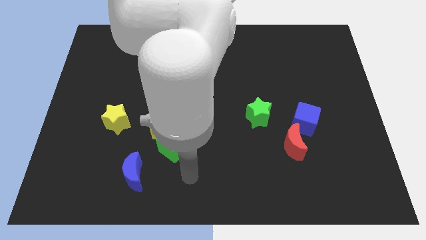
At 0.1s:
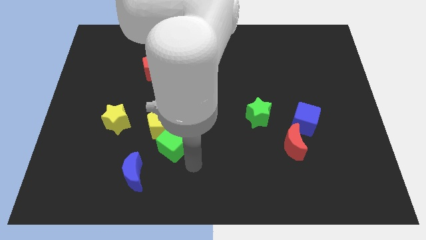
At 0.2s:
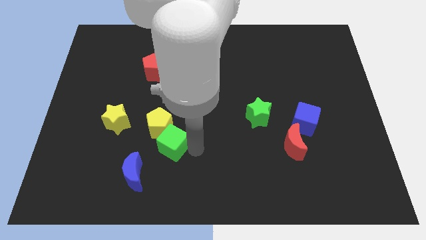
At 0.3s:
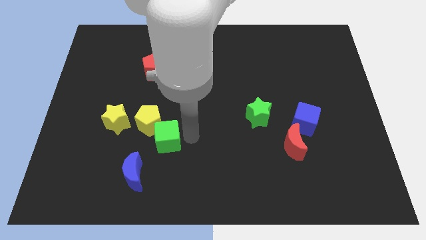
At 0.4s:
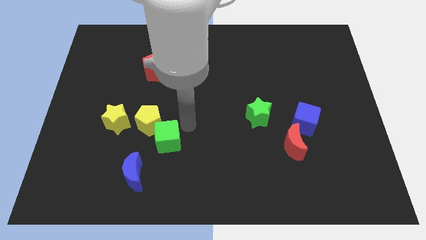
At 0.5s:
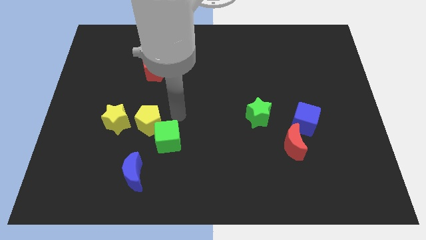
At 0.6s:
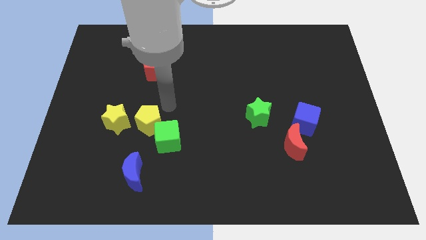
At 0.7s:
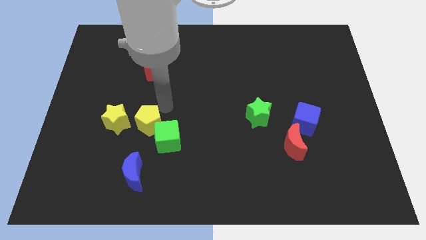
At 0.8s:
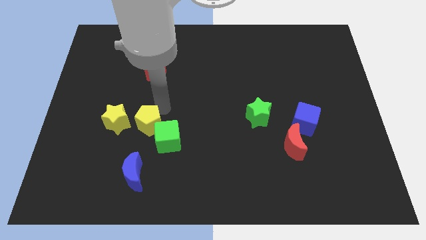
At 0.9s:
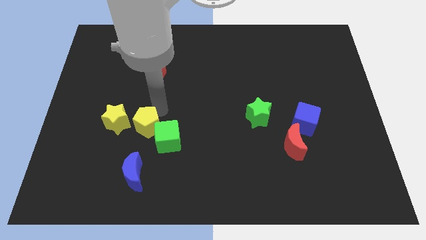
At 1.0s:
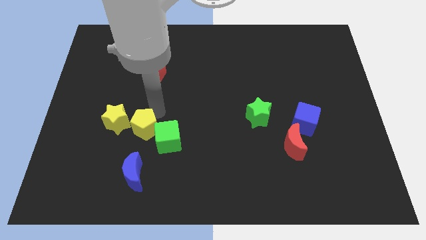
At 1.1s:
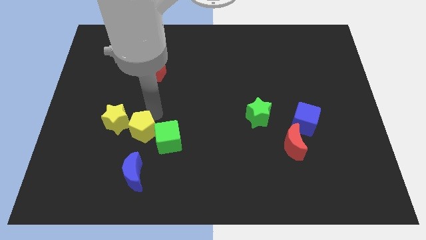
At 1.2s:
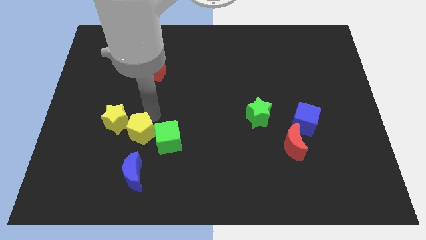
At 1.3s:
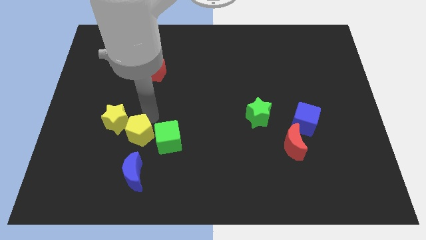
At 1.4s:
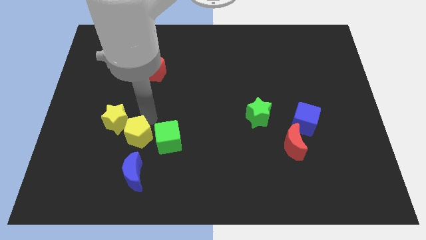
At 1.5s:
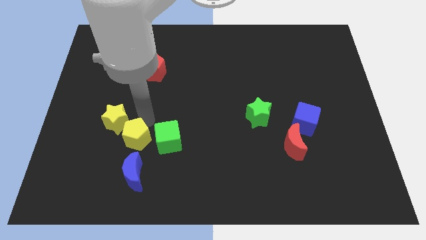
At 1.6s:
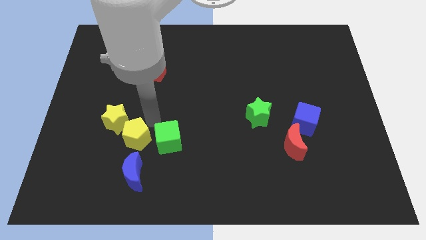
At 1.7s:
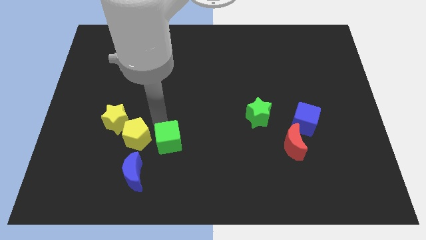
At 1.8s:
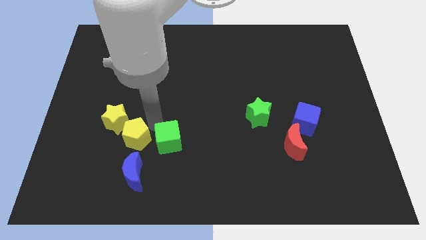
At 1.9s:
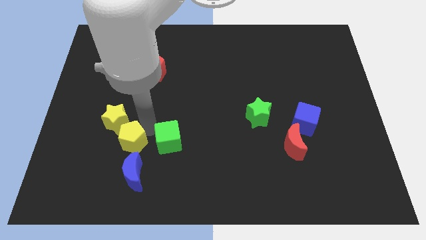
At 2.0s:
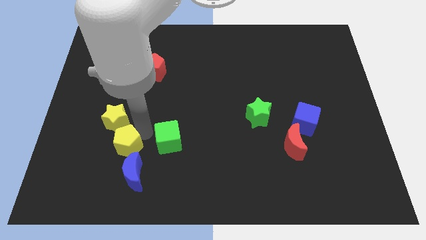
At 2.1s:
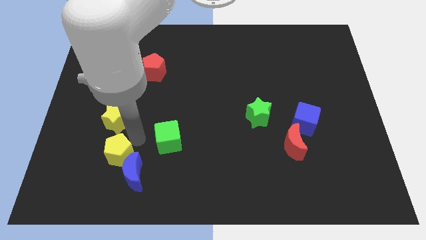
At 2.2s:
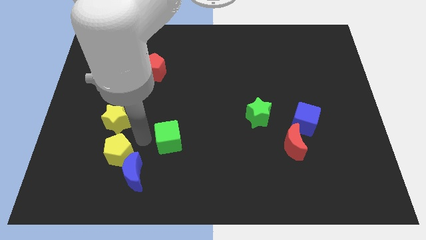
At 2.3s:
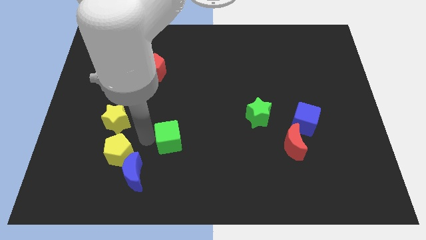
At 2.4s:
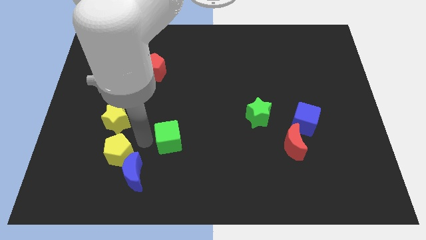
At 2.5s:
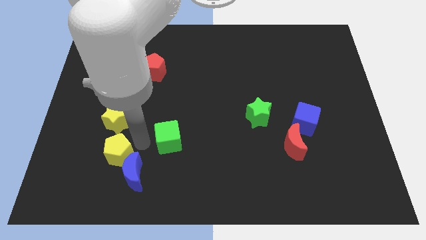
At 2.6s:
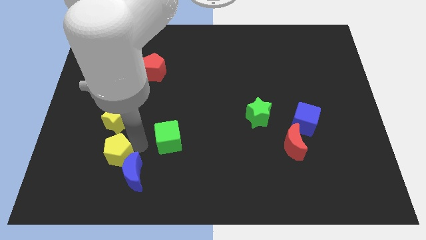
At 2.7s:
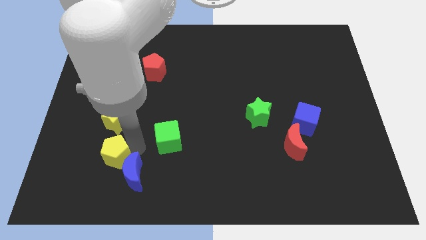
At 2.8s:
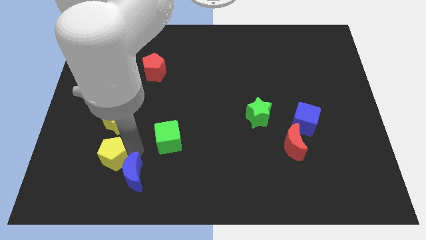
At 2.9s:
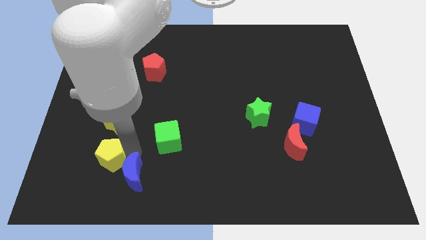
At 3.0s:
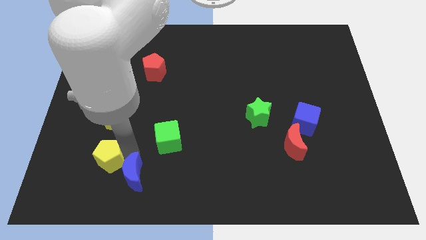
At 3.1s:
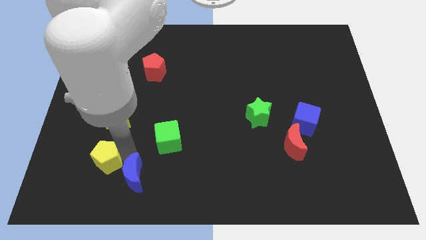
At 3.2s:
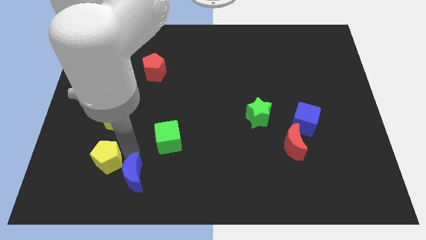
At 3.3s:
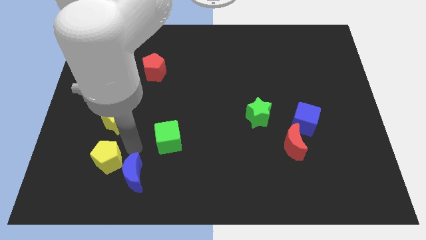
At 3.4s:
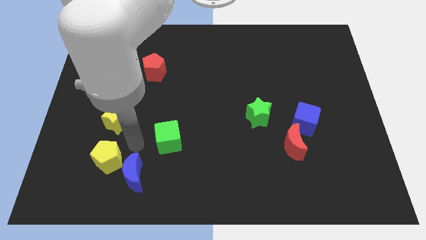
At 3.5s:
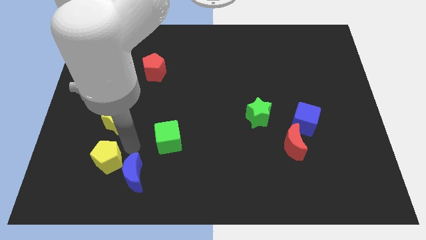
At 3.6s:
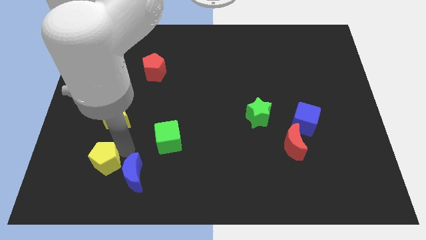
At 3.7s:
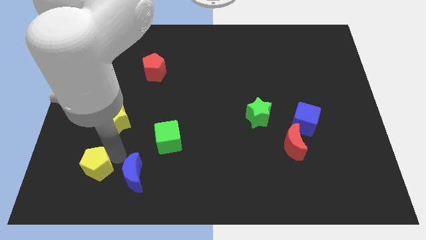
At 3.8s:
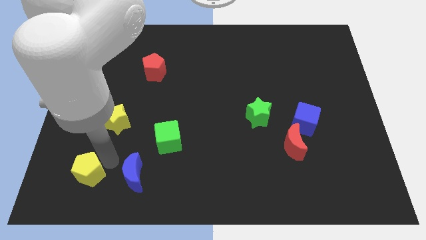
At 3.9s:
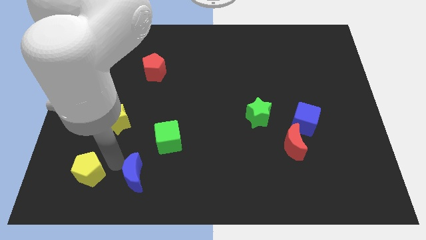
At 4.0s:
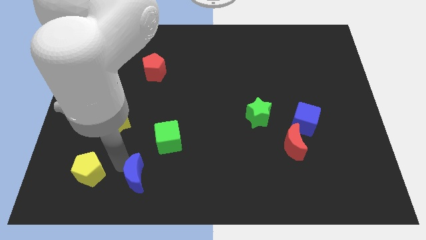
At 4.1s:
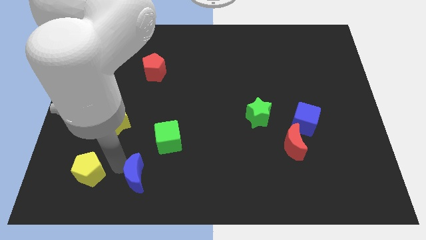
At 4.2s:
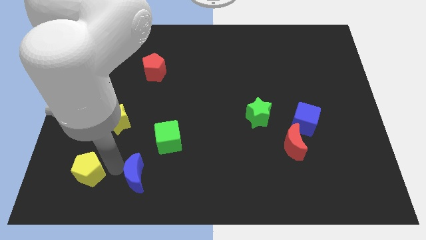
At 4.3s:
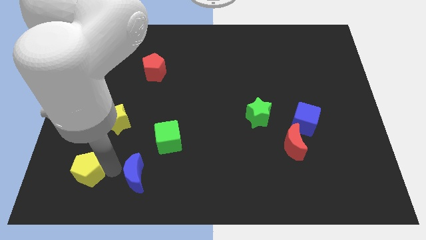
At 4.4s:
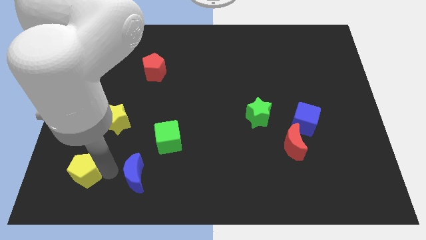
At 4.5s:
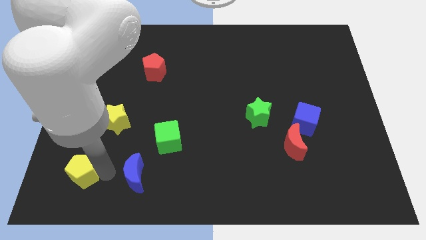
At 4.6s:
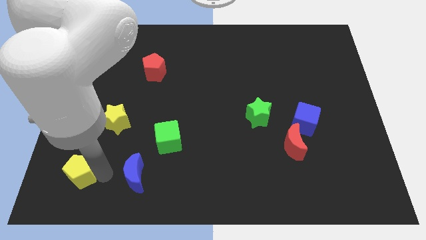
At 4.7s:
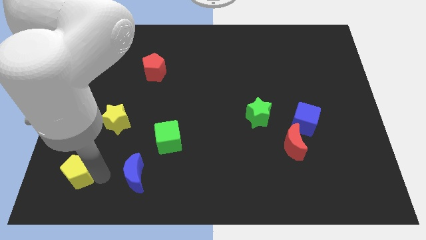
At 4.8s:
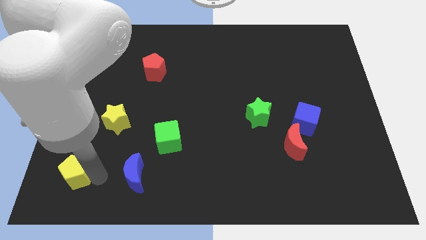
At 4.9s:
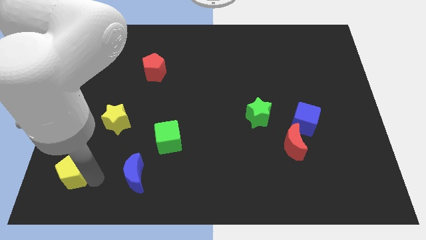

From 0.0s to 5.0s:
move the yellow pentagon to the lower left corner

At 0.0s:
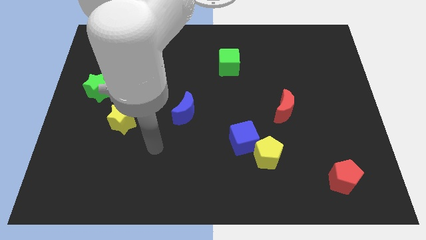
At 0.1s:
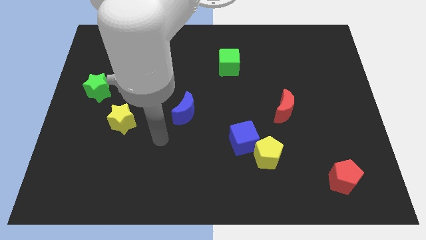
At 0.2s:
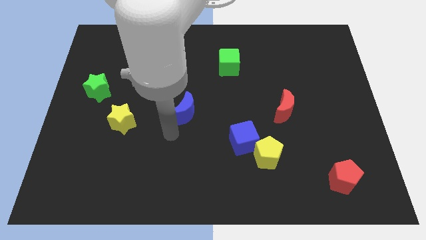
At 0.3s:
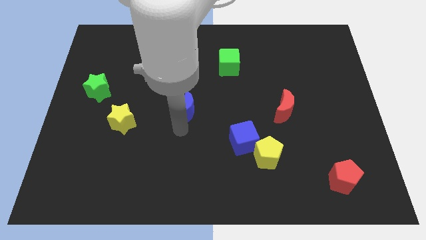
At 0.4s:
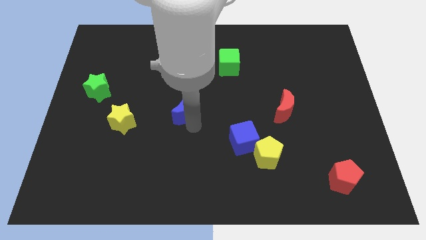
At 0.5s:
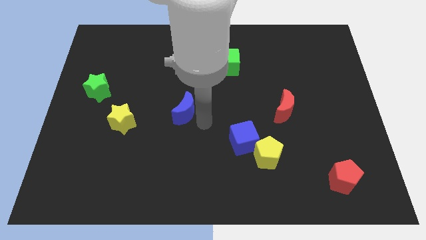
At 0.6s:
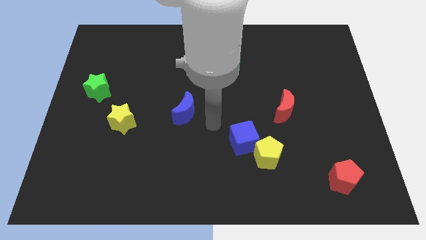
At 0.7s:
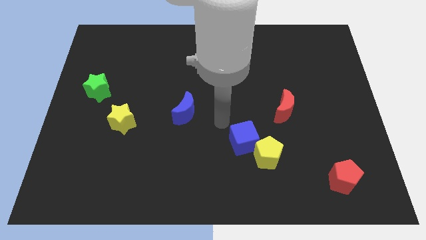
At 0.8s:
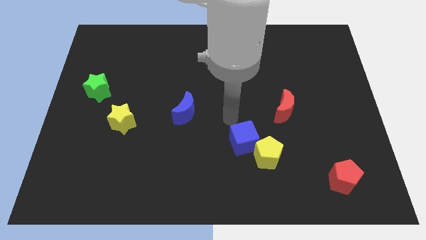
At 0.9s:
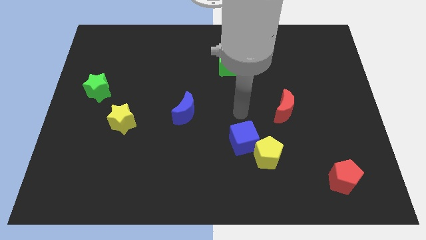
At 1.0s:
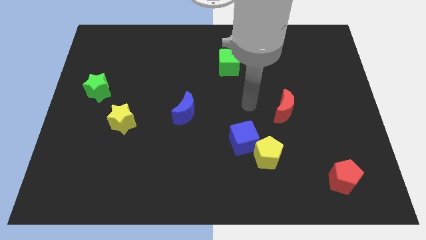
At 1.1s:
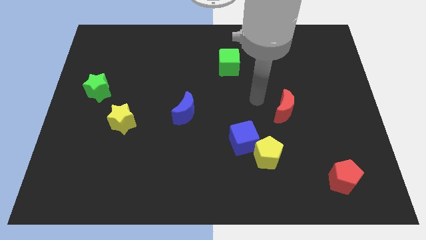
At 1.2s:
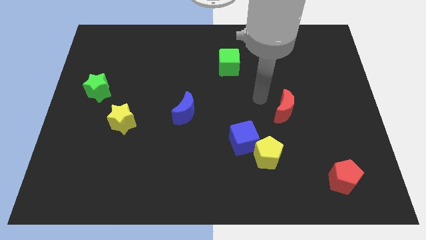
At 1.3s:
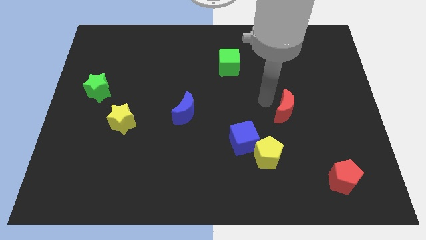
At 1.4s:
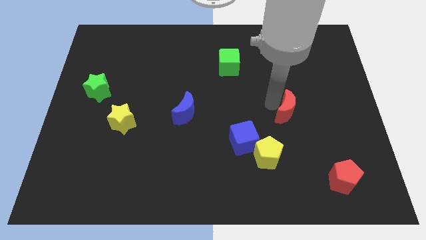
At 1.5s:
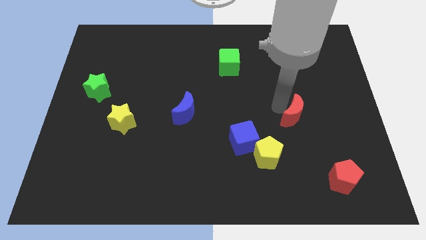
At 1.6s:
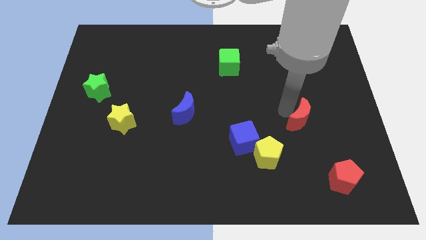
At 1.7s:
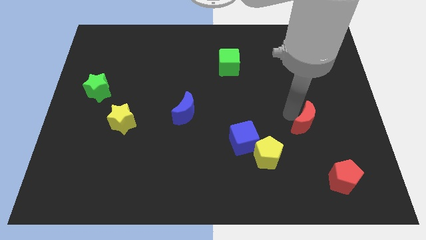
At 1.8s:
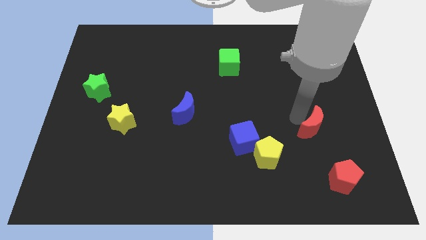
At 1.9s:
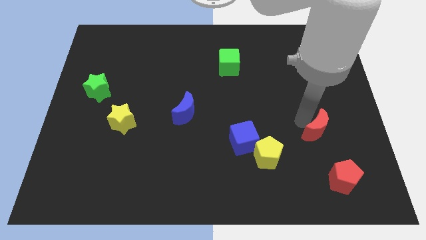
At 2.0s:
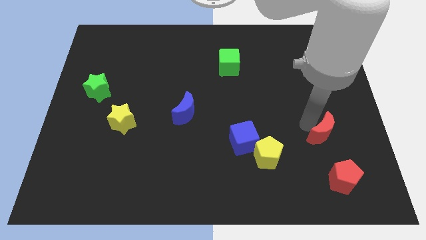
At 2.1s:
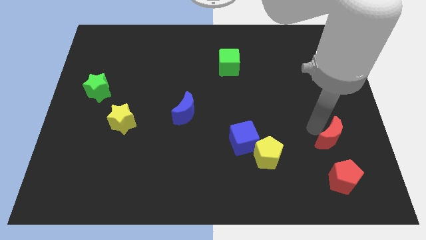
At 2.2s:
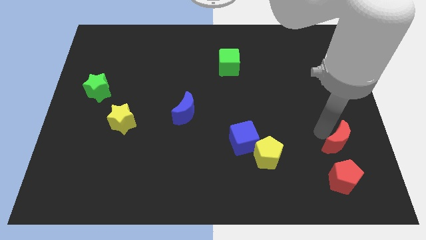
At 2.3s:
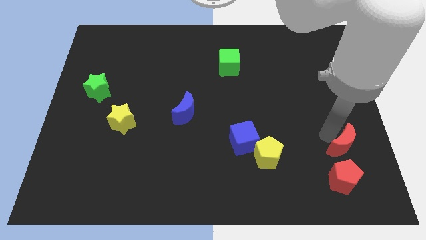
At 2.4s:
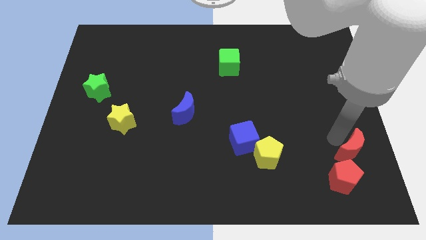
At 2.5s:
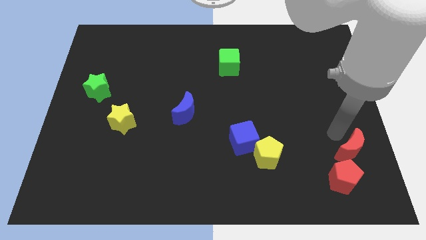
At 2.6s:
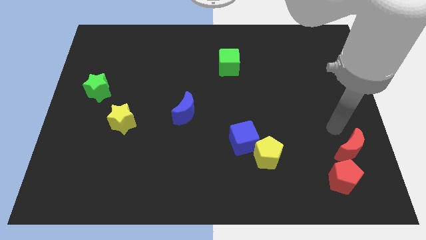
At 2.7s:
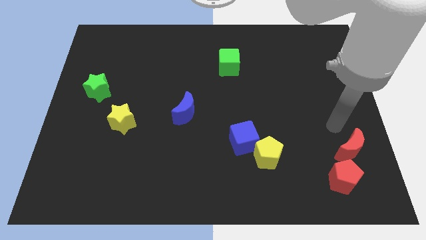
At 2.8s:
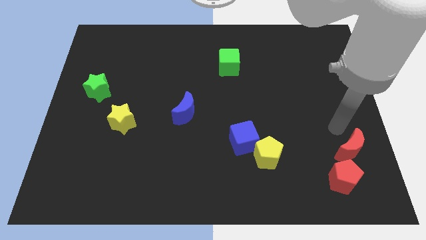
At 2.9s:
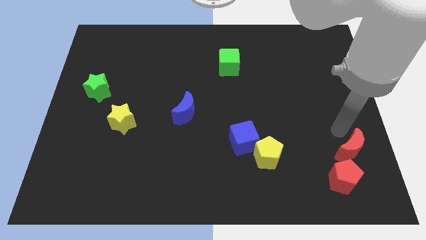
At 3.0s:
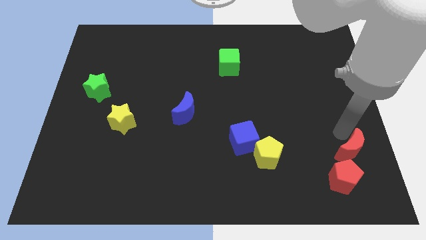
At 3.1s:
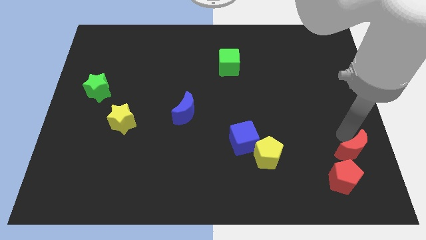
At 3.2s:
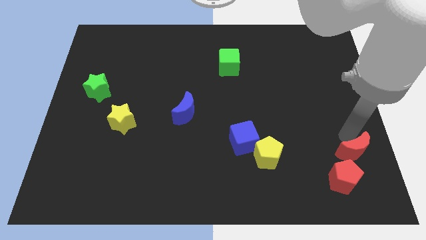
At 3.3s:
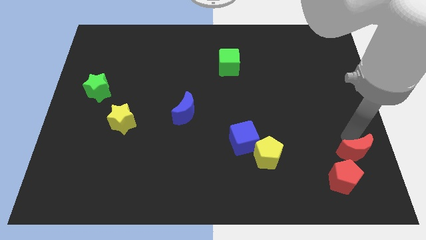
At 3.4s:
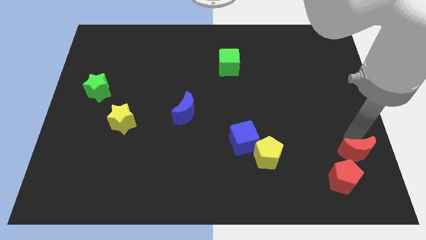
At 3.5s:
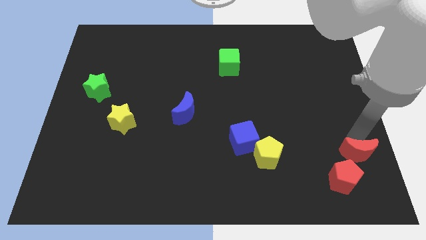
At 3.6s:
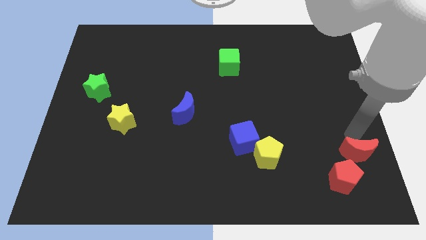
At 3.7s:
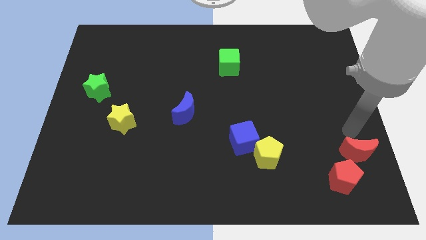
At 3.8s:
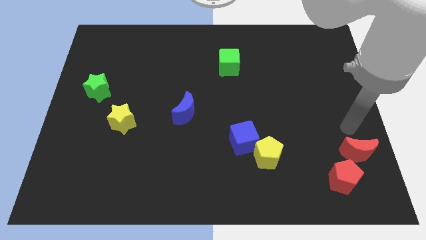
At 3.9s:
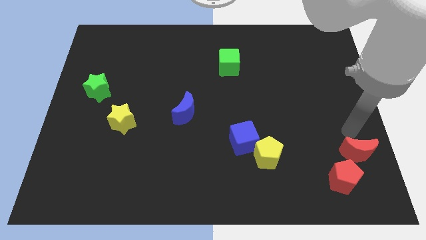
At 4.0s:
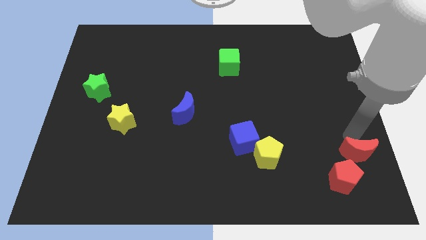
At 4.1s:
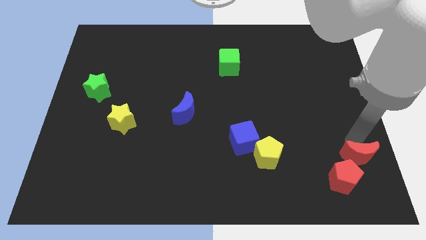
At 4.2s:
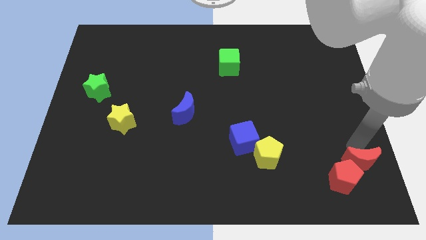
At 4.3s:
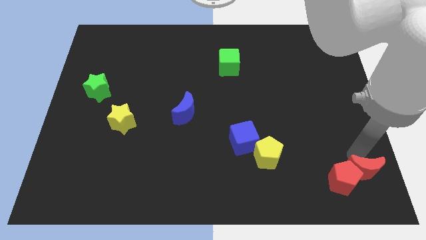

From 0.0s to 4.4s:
slide the red moon to the lower right corner
